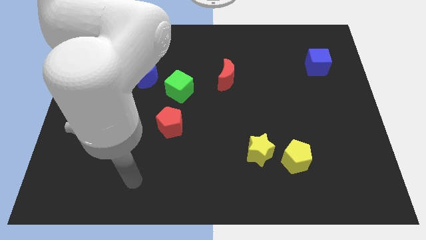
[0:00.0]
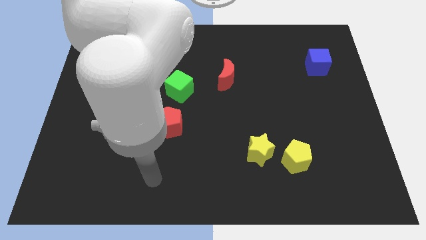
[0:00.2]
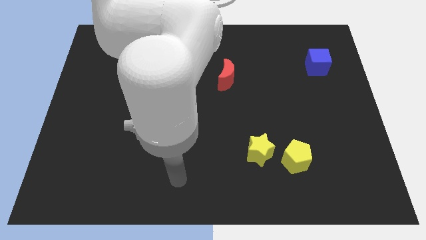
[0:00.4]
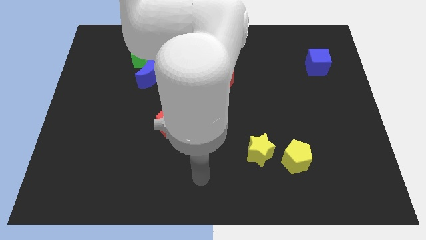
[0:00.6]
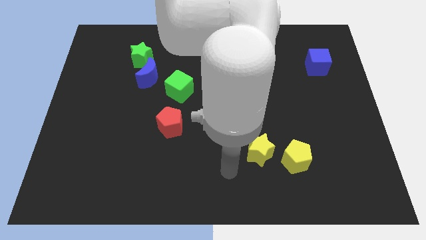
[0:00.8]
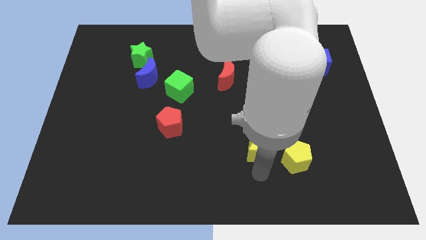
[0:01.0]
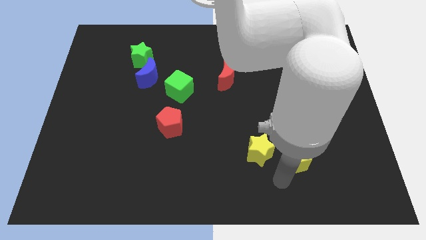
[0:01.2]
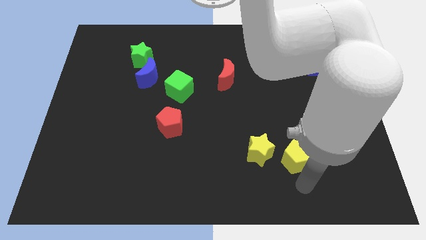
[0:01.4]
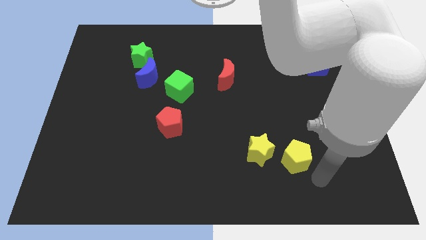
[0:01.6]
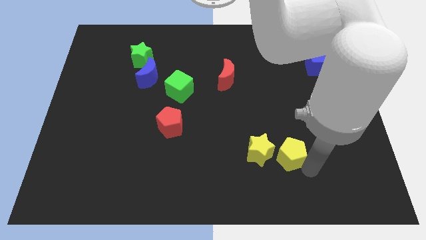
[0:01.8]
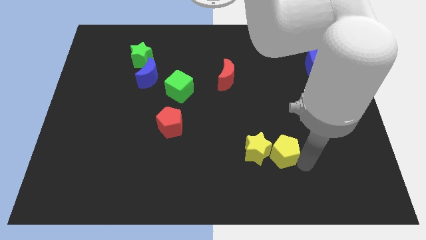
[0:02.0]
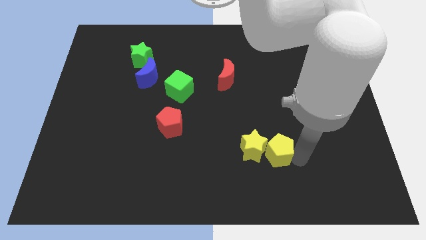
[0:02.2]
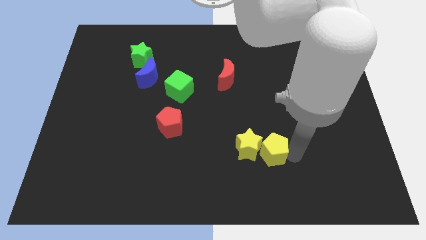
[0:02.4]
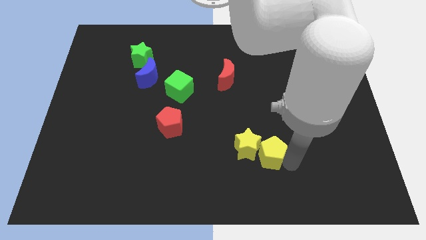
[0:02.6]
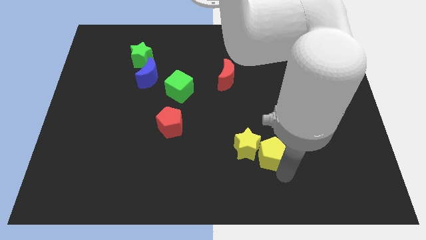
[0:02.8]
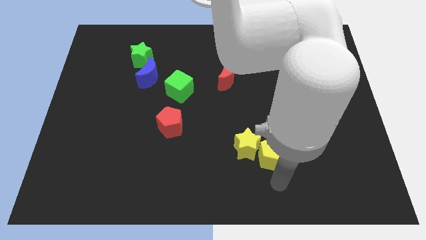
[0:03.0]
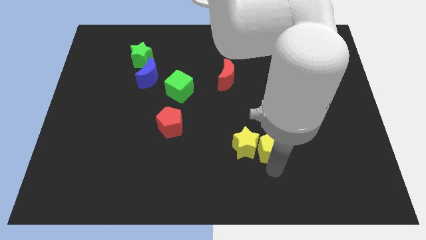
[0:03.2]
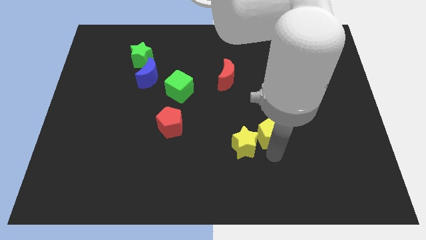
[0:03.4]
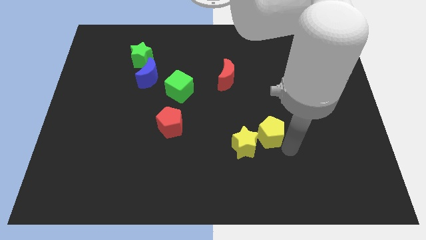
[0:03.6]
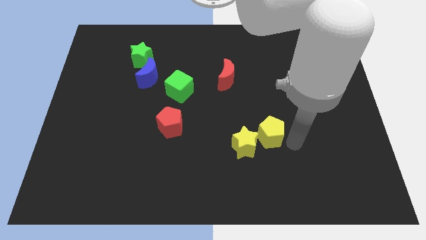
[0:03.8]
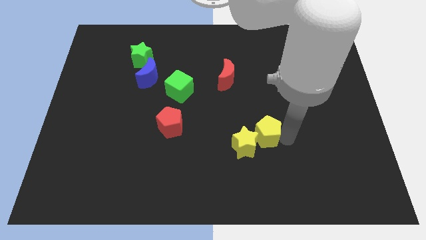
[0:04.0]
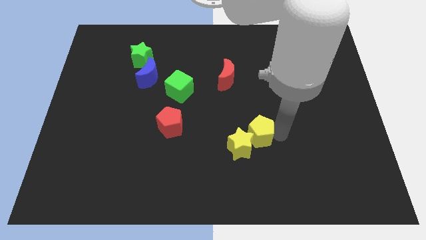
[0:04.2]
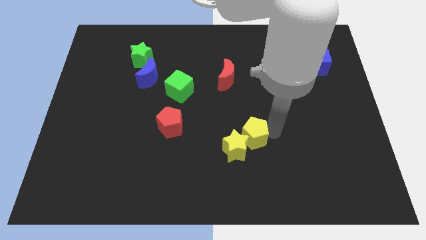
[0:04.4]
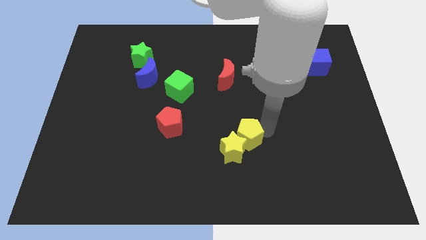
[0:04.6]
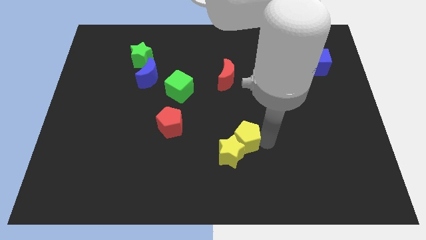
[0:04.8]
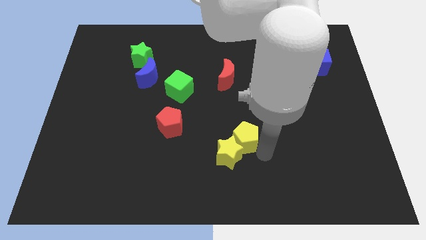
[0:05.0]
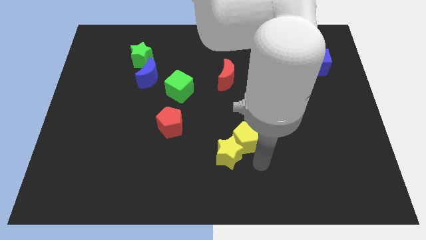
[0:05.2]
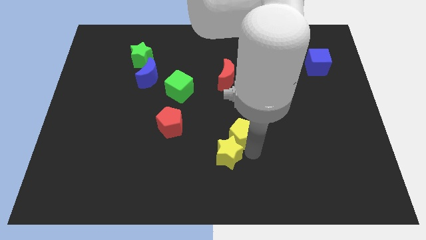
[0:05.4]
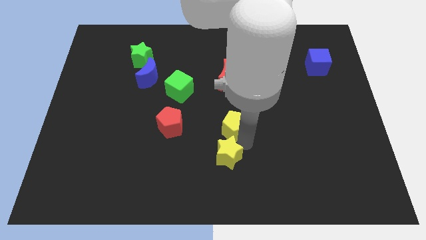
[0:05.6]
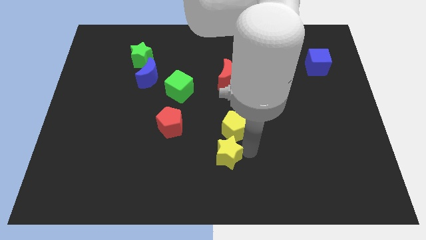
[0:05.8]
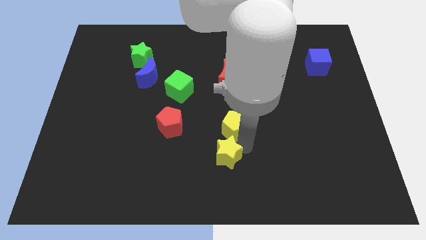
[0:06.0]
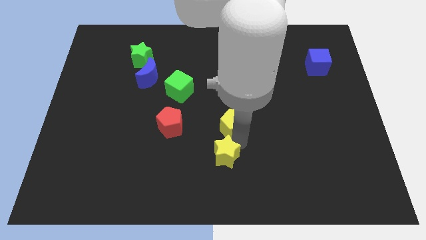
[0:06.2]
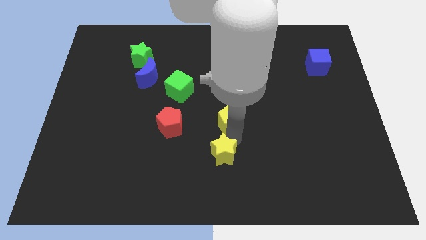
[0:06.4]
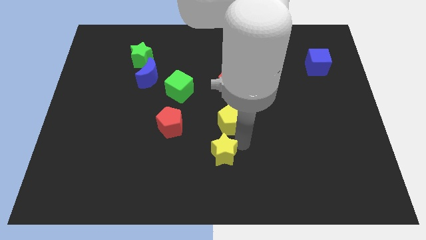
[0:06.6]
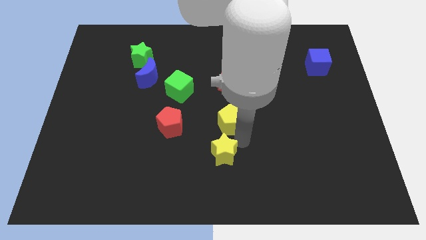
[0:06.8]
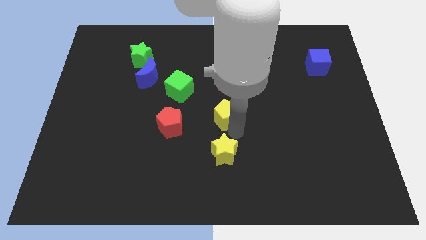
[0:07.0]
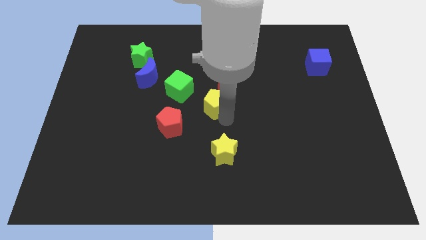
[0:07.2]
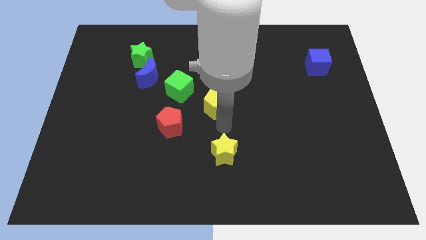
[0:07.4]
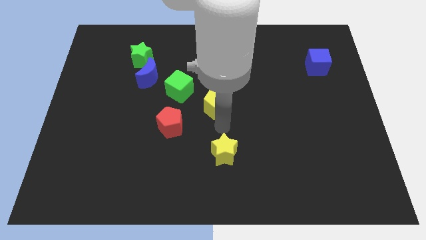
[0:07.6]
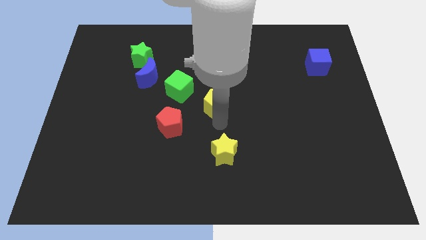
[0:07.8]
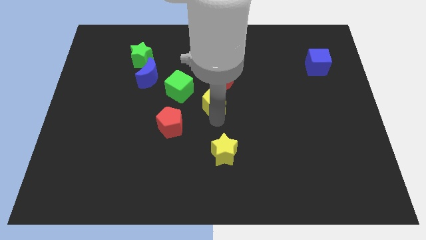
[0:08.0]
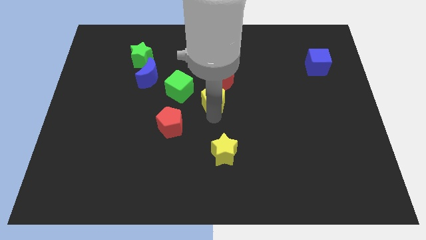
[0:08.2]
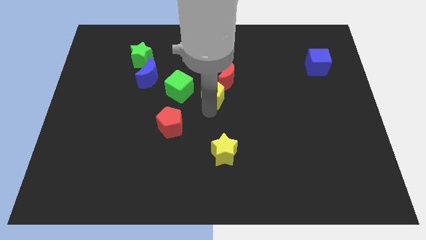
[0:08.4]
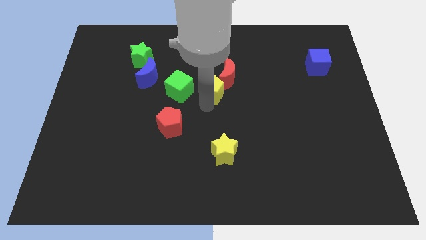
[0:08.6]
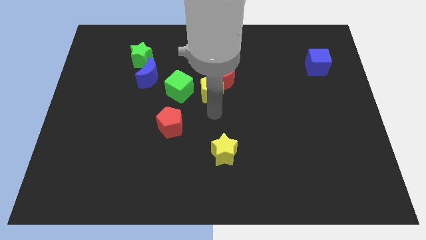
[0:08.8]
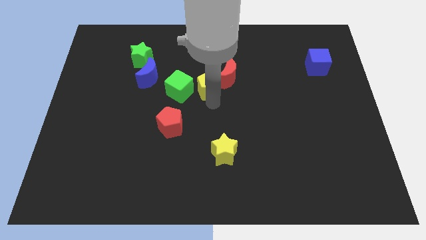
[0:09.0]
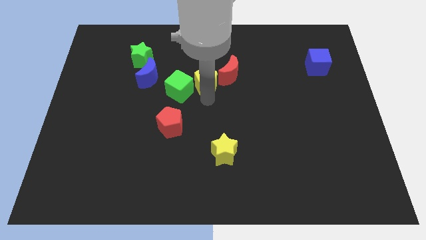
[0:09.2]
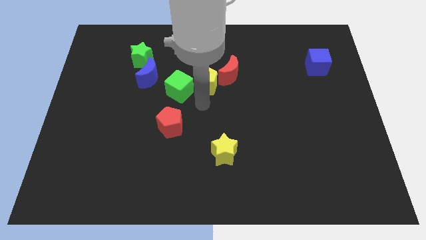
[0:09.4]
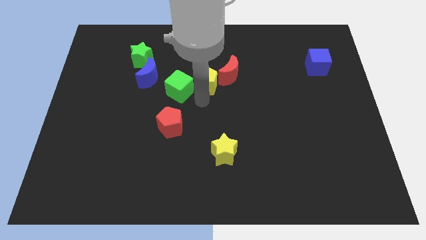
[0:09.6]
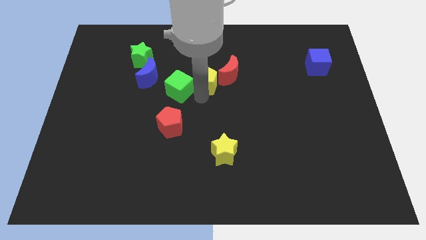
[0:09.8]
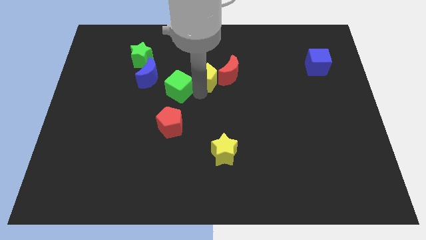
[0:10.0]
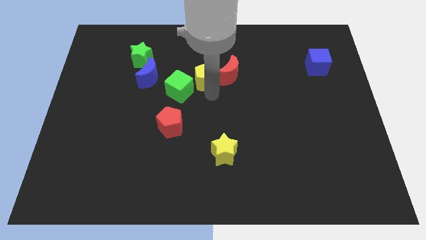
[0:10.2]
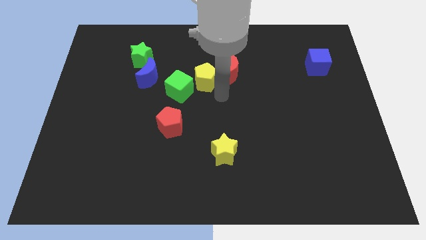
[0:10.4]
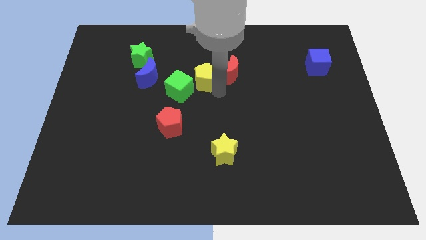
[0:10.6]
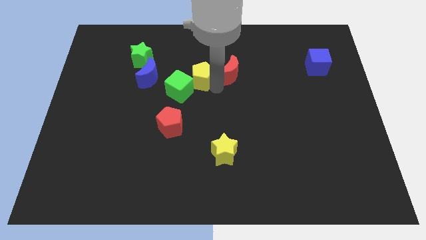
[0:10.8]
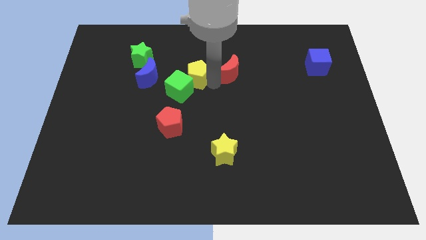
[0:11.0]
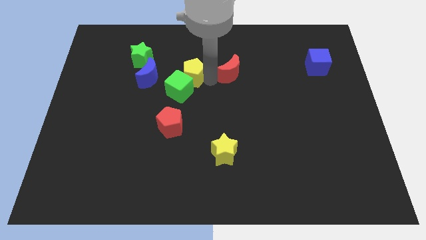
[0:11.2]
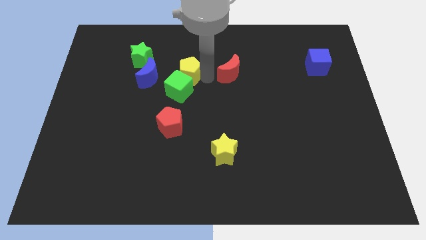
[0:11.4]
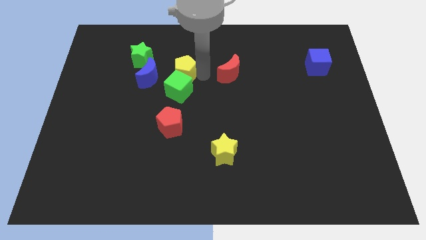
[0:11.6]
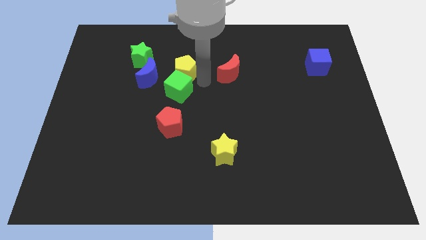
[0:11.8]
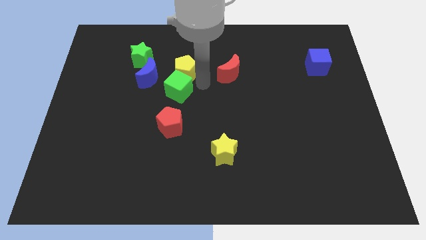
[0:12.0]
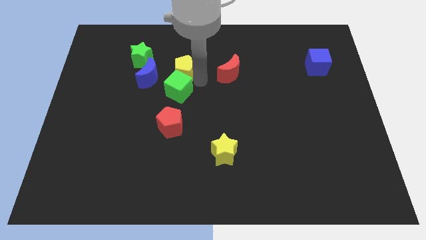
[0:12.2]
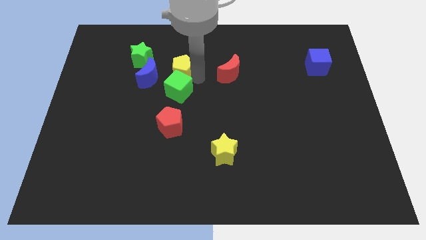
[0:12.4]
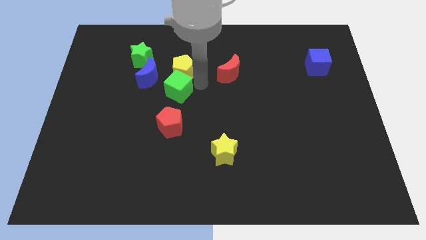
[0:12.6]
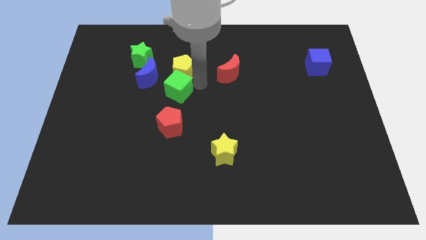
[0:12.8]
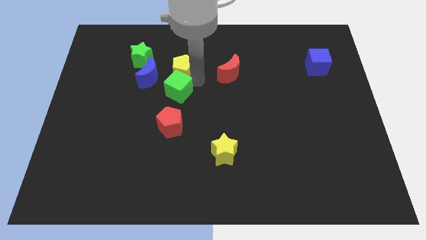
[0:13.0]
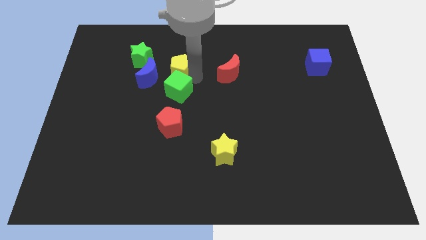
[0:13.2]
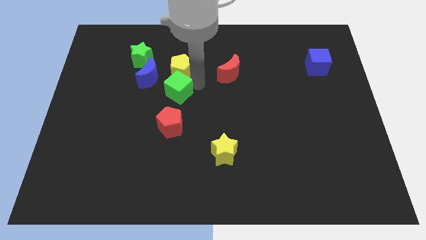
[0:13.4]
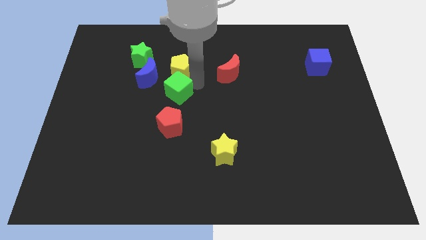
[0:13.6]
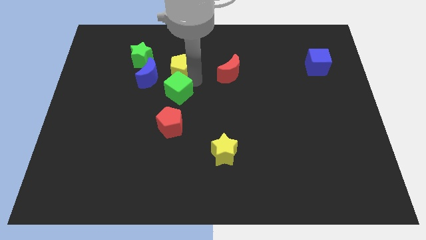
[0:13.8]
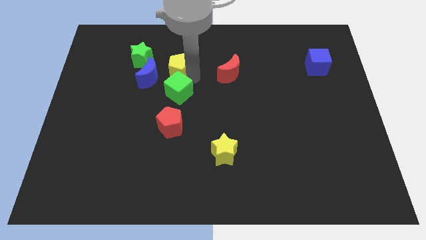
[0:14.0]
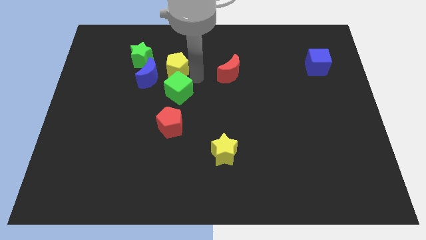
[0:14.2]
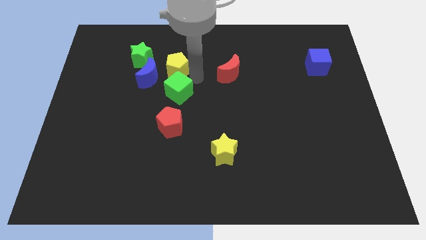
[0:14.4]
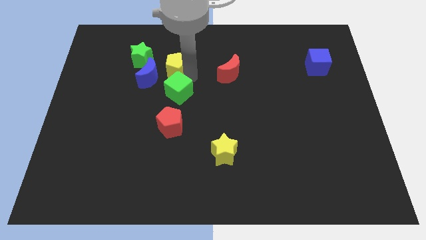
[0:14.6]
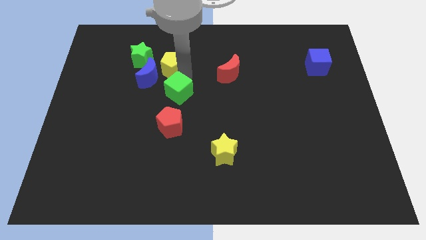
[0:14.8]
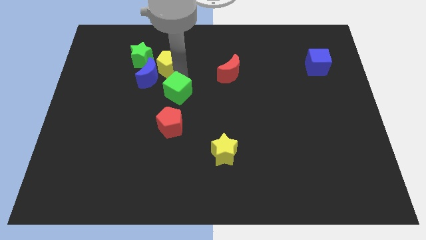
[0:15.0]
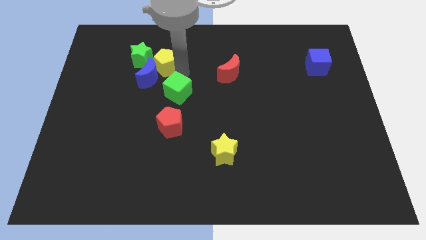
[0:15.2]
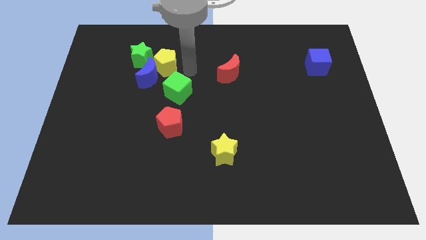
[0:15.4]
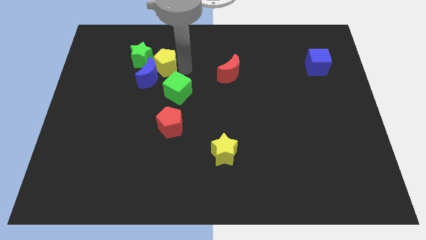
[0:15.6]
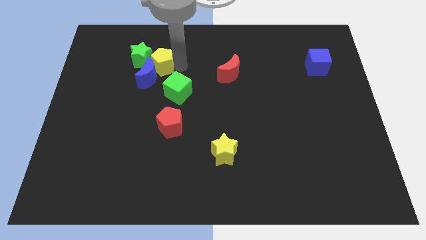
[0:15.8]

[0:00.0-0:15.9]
move the yellow pentagon next to the green star
